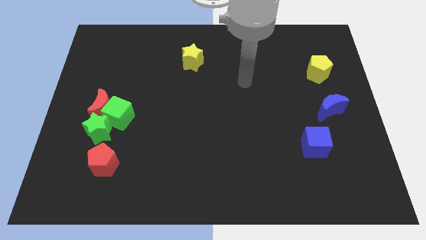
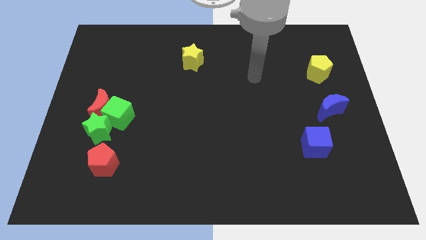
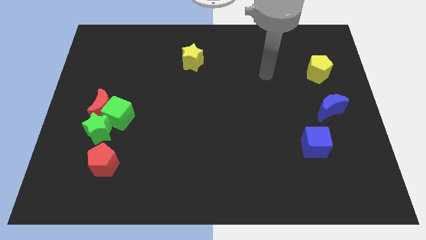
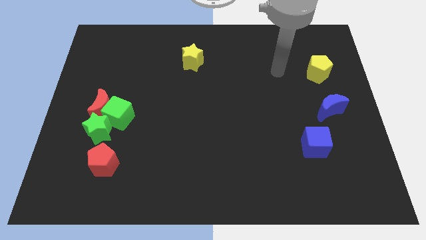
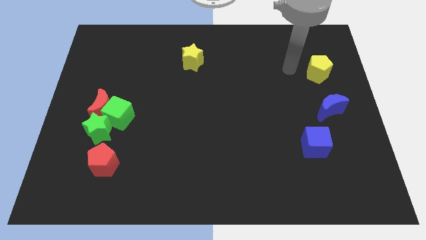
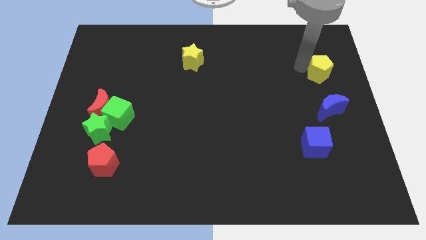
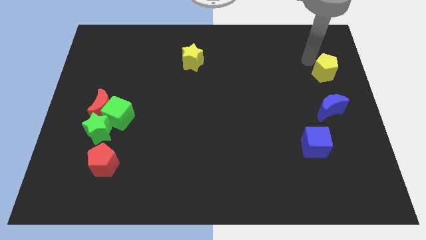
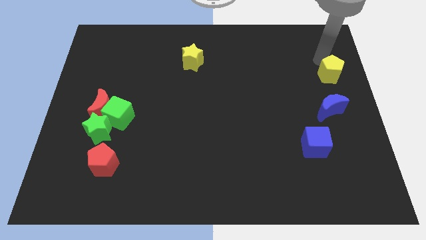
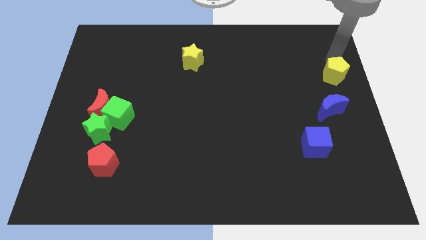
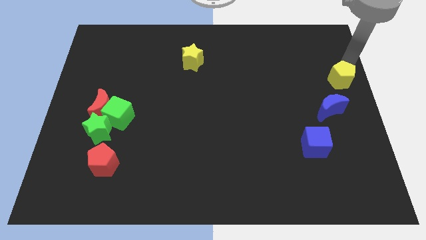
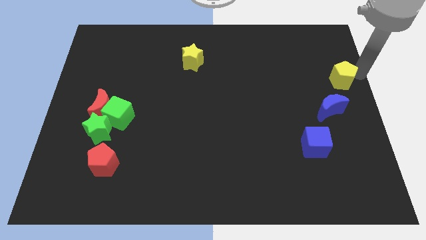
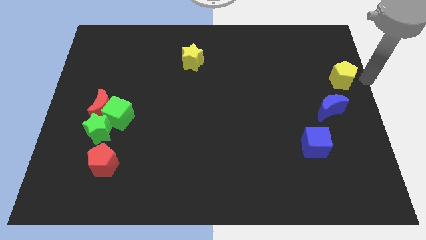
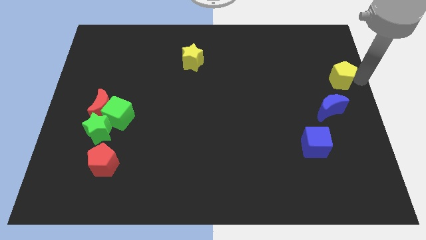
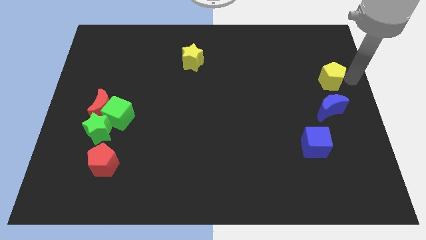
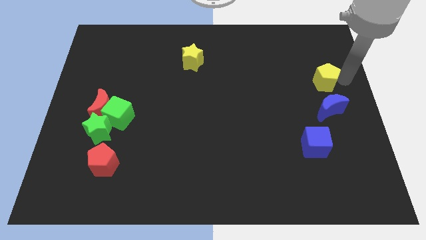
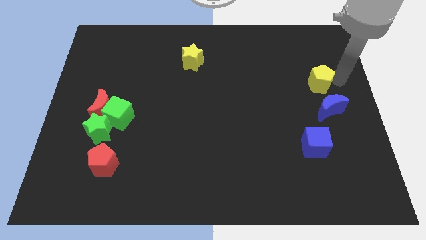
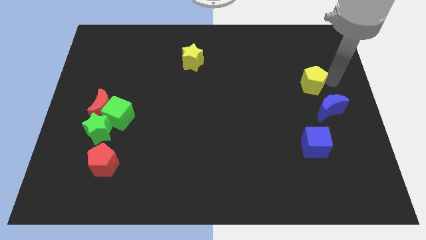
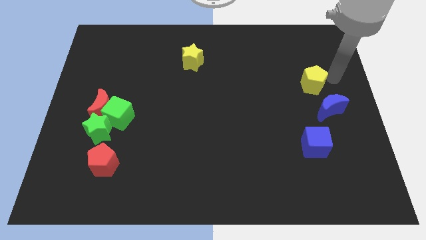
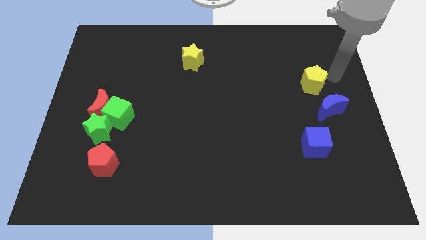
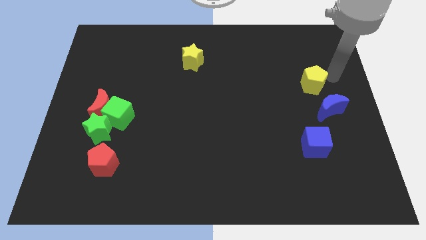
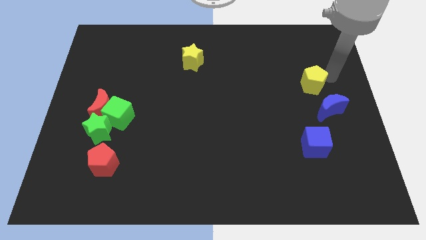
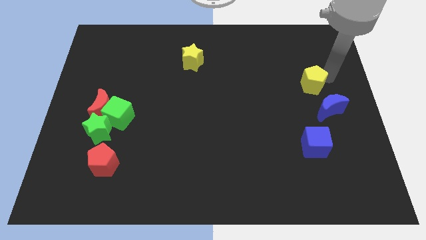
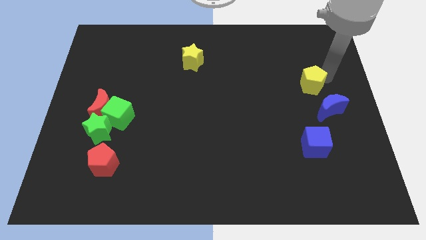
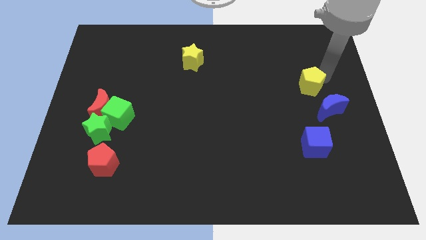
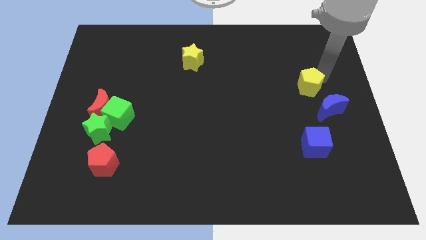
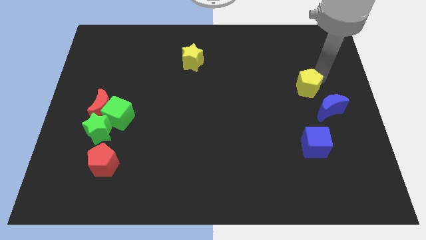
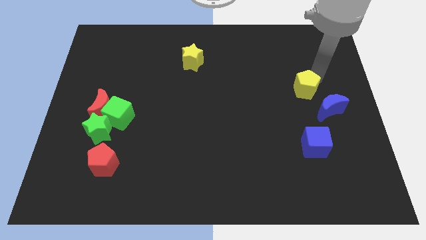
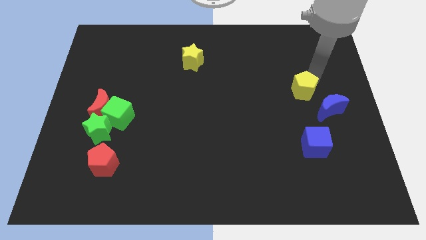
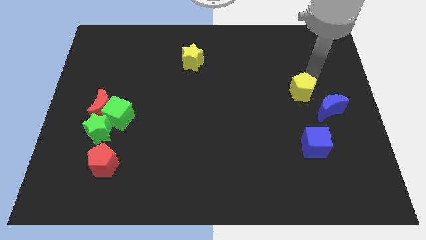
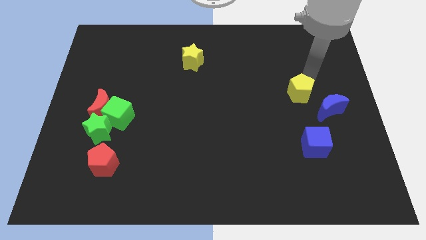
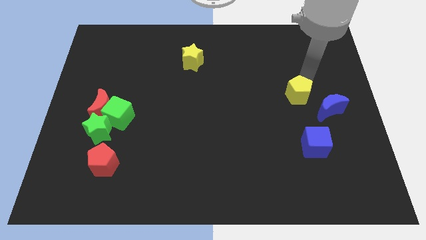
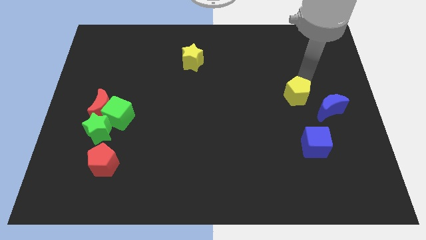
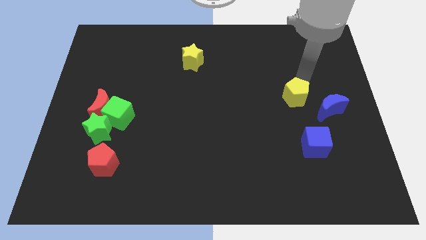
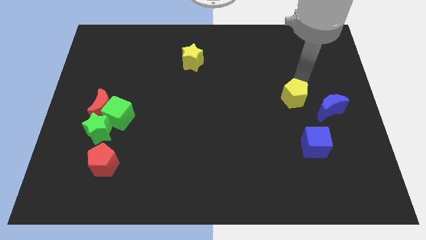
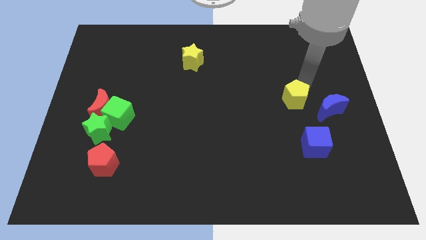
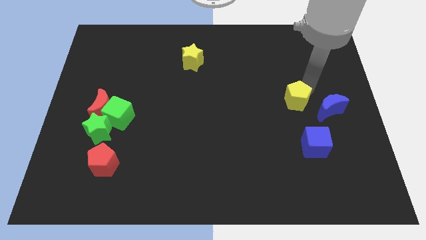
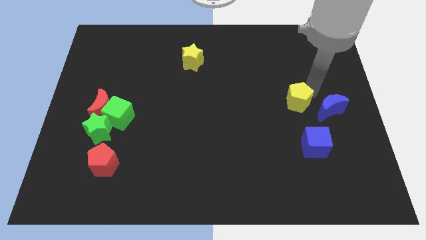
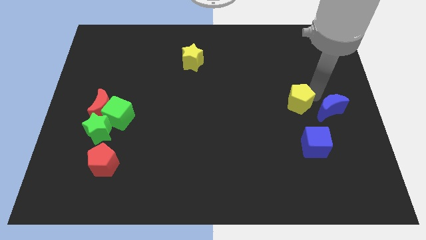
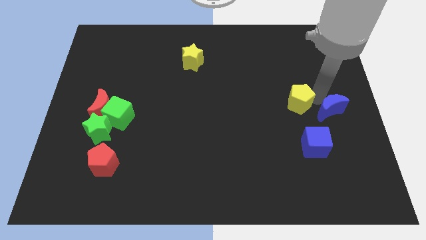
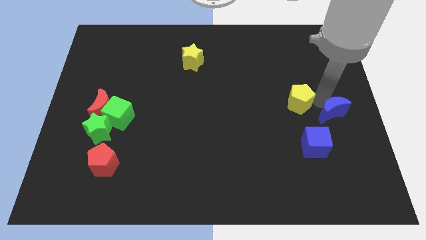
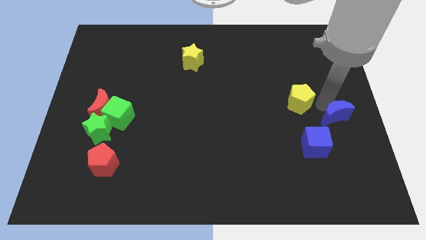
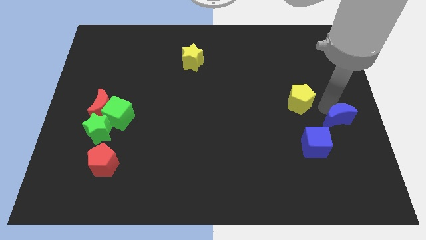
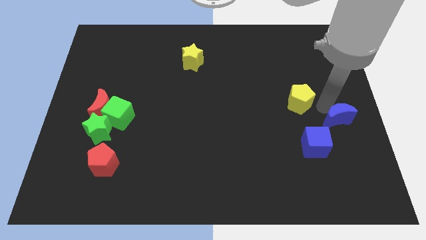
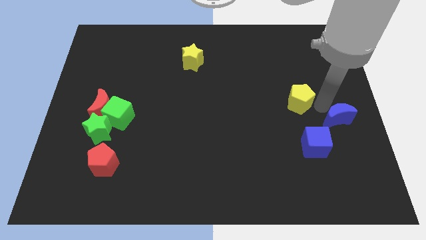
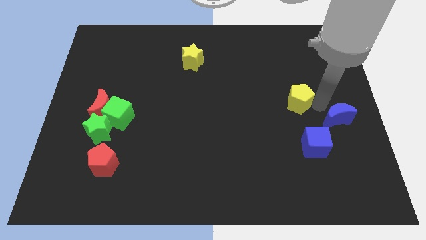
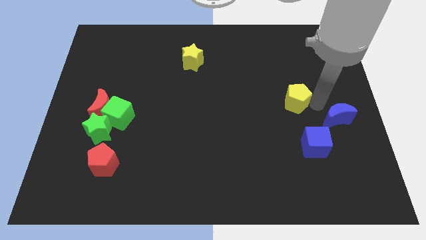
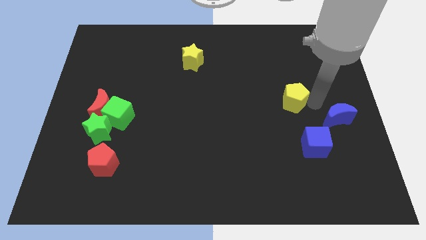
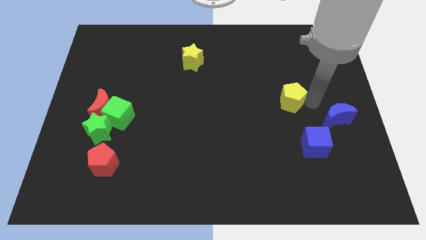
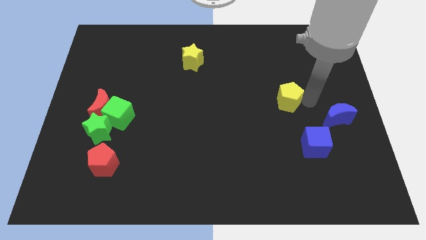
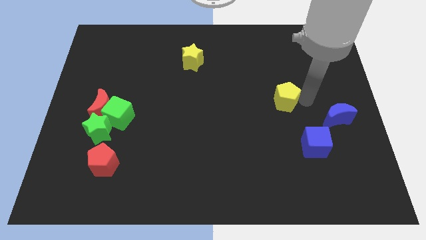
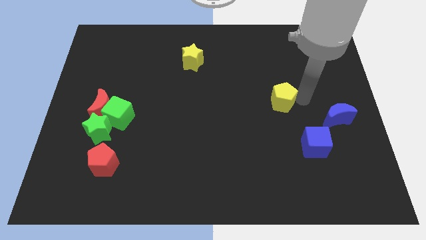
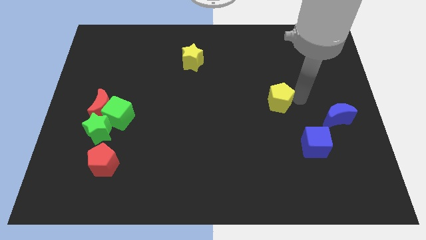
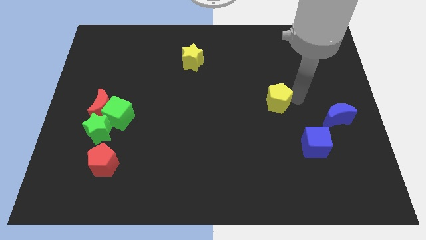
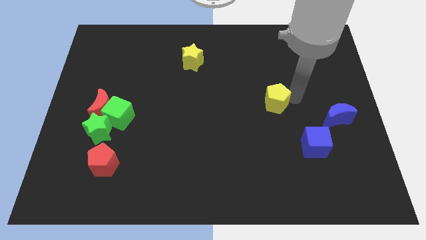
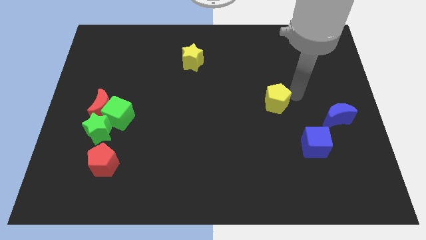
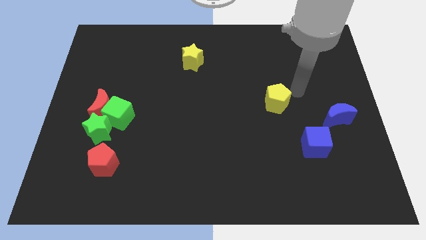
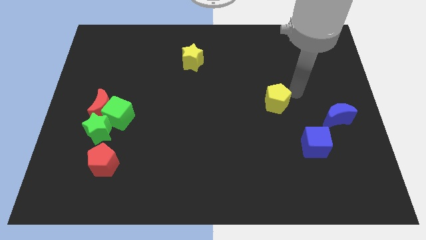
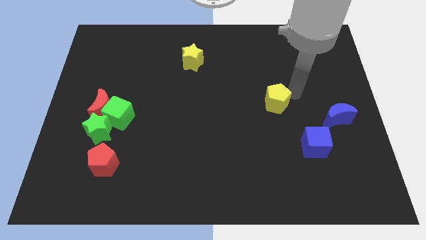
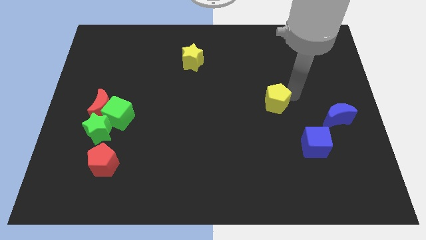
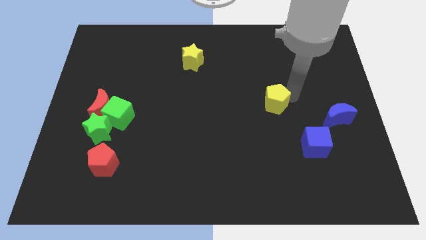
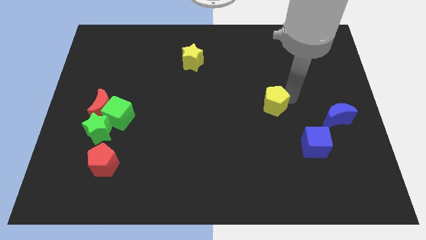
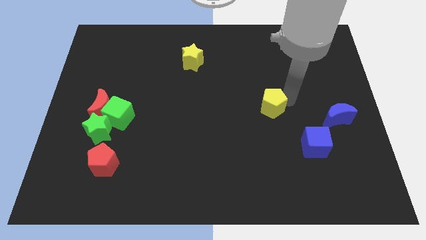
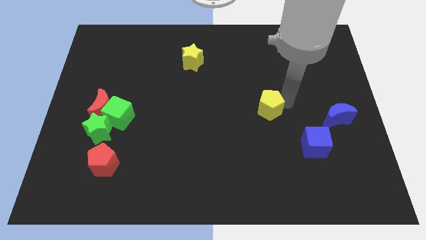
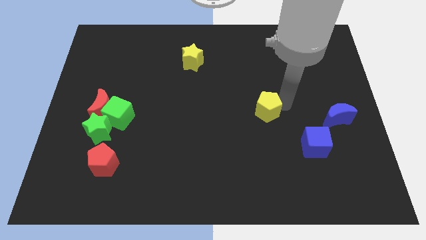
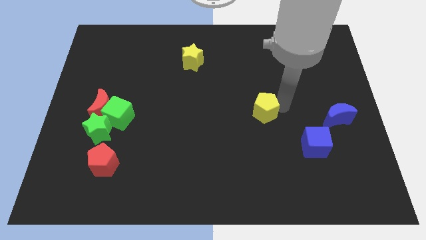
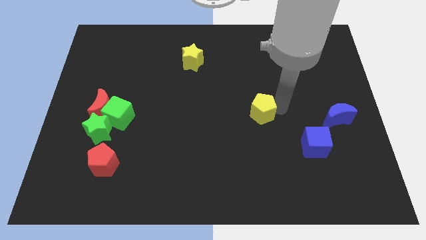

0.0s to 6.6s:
push the yellow pentagon downwards and then to the left

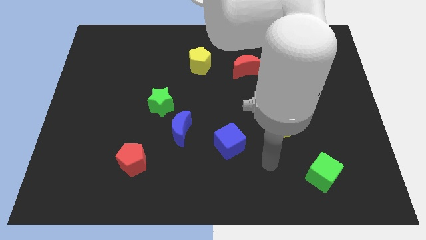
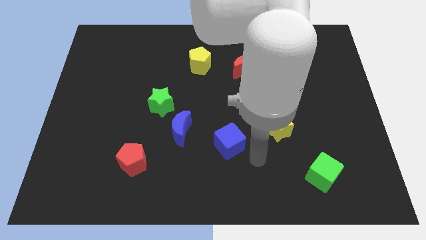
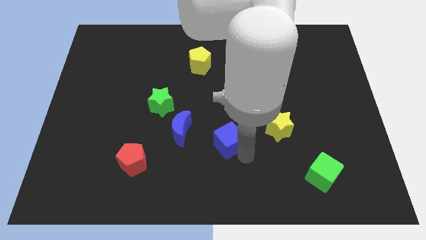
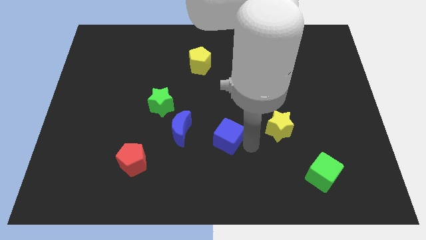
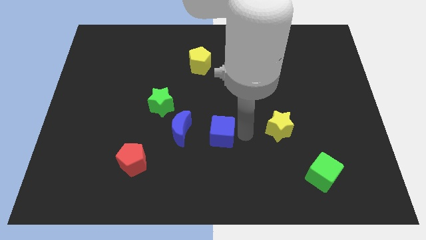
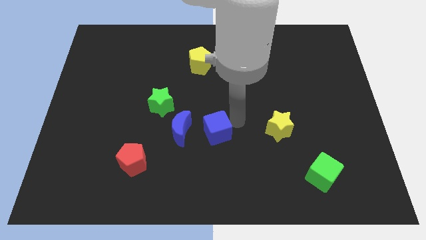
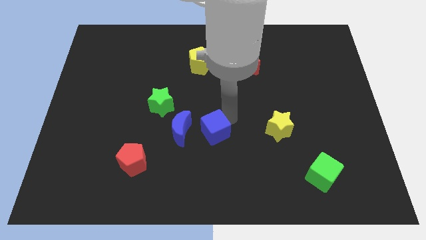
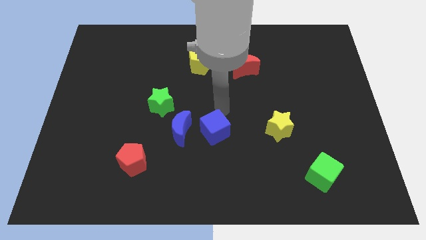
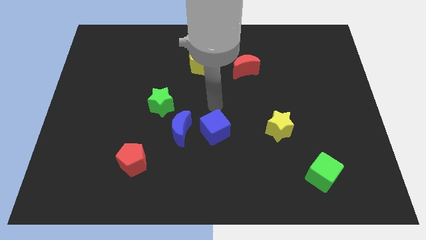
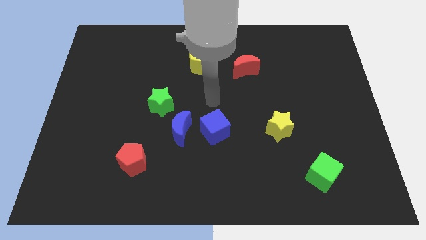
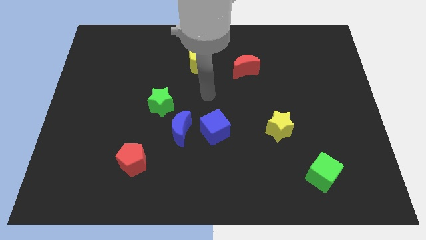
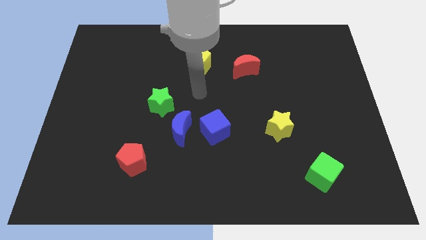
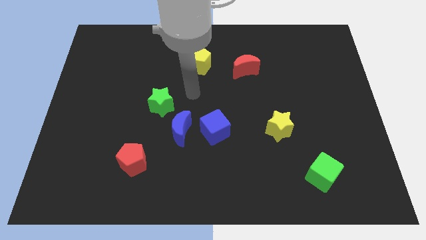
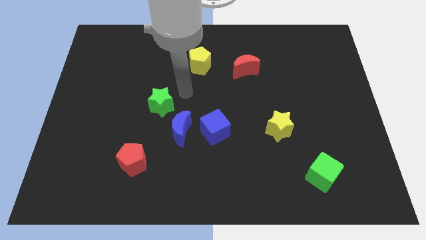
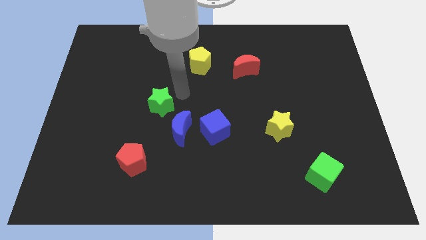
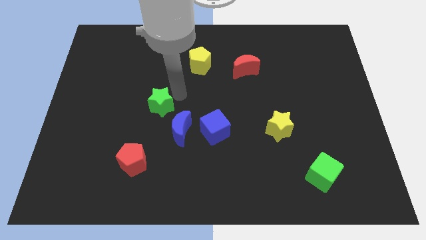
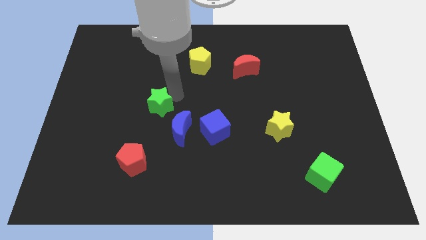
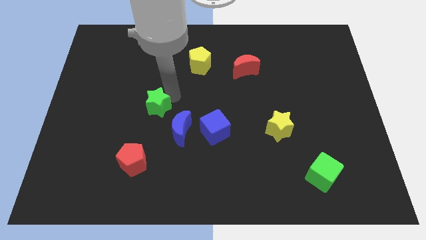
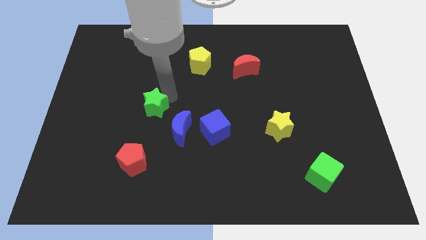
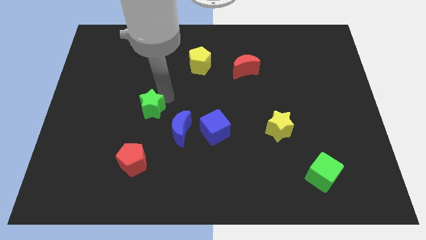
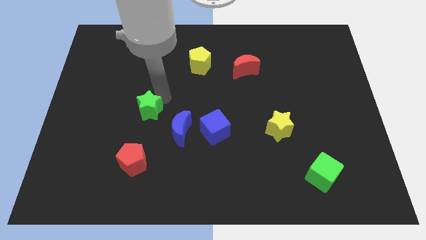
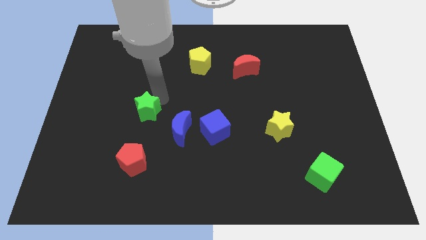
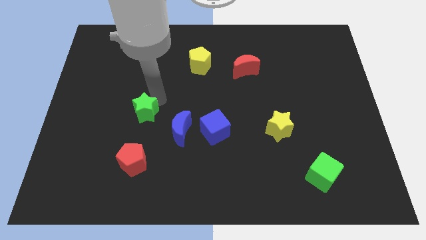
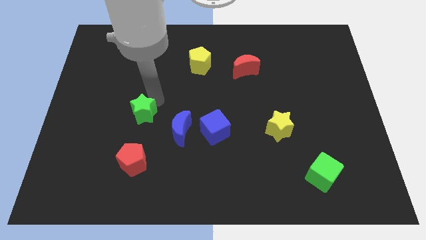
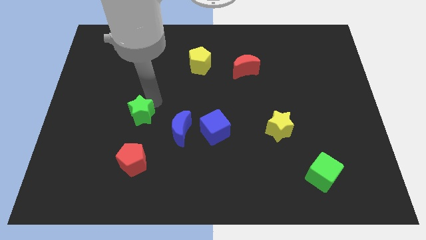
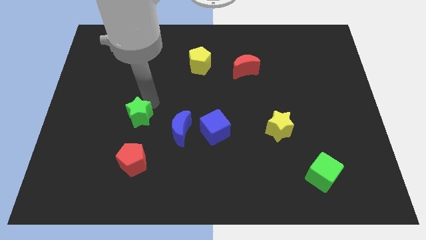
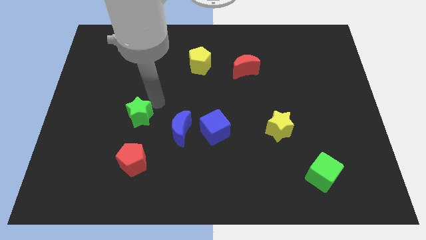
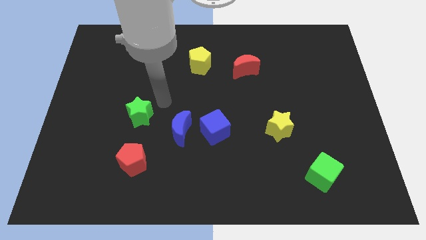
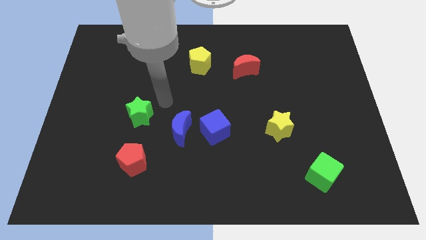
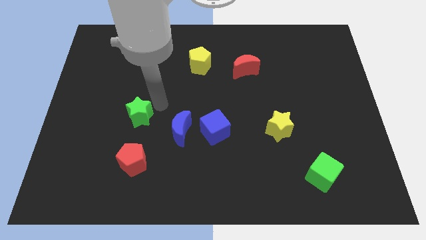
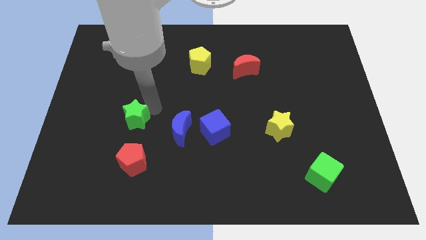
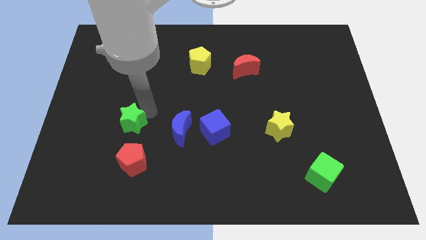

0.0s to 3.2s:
slightly slide the green star diagonally downwards and to the left
